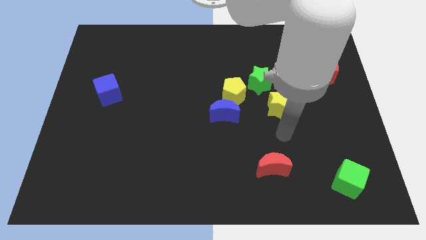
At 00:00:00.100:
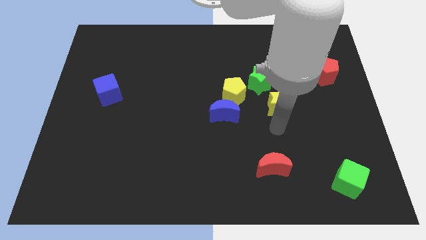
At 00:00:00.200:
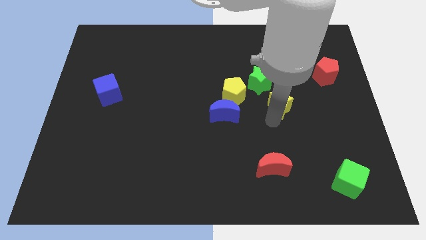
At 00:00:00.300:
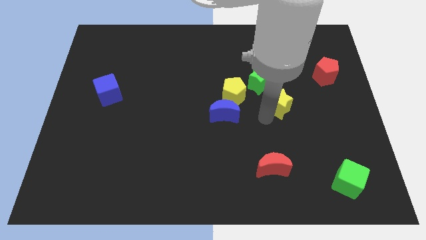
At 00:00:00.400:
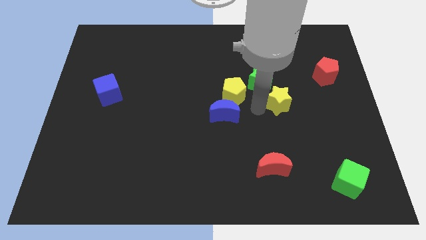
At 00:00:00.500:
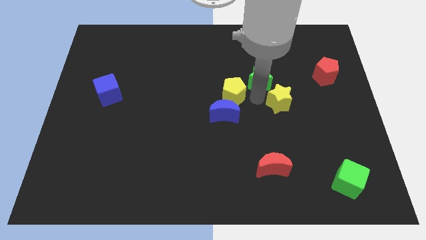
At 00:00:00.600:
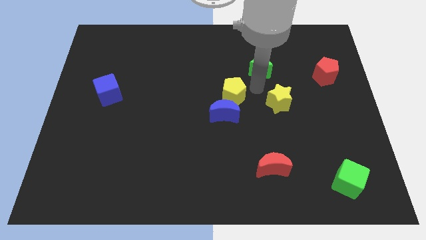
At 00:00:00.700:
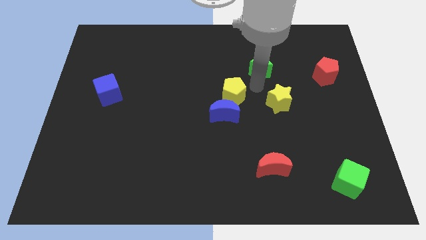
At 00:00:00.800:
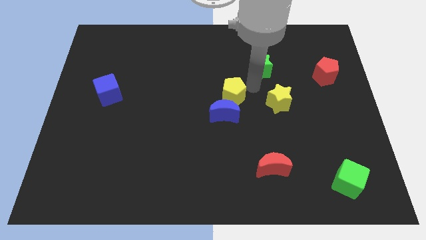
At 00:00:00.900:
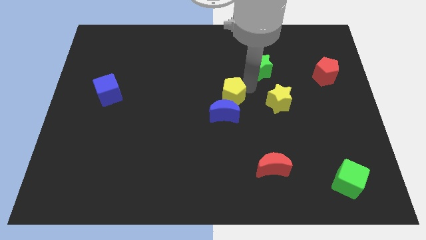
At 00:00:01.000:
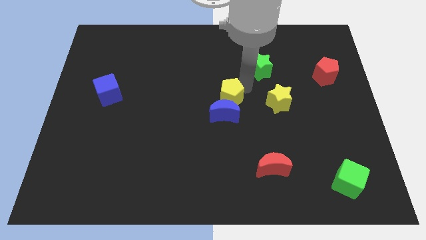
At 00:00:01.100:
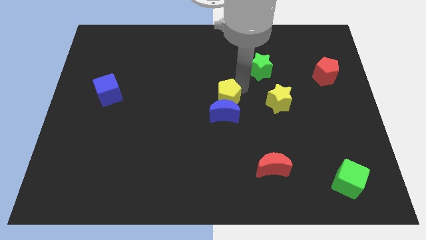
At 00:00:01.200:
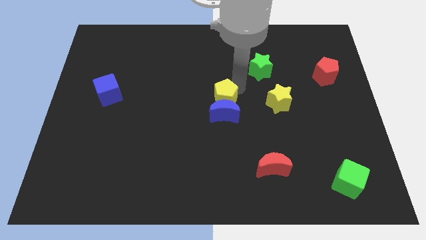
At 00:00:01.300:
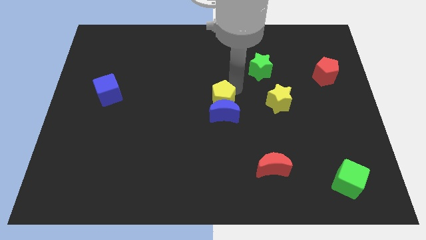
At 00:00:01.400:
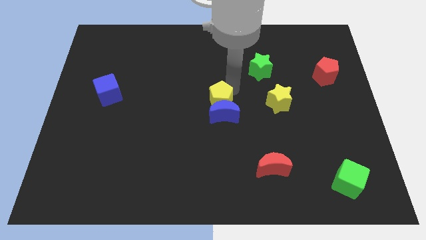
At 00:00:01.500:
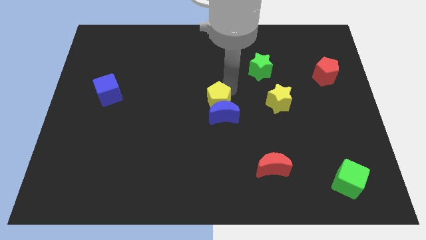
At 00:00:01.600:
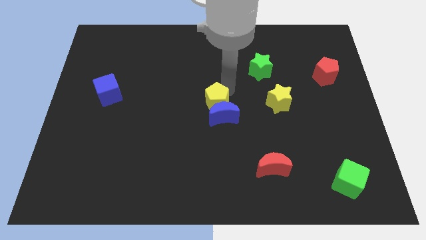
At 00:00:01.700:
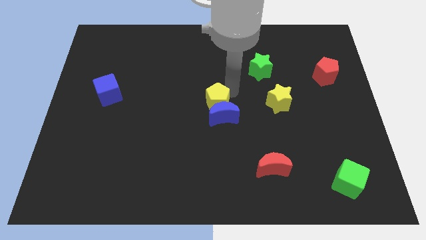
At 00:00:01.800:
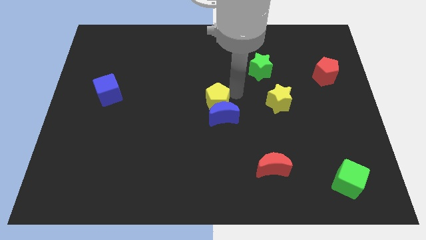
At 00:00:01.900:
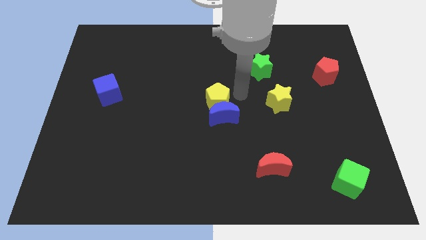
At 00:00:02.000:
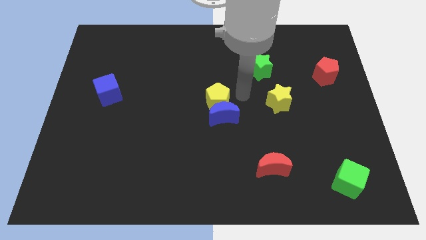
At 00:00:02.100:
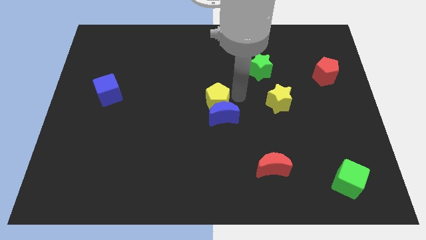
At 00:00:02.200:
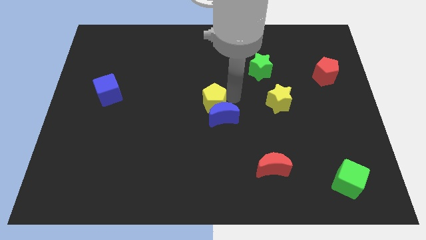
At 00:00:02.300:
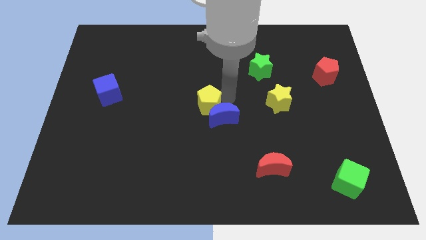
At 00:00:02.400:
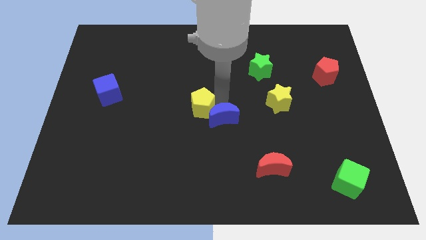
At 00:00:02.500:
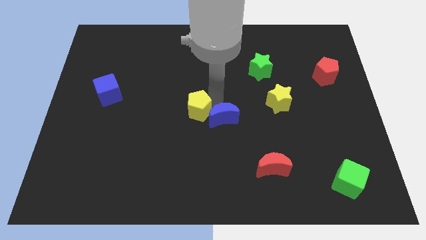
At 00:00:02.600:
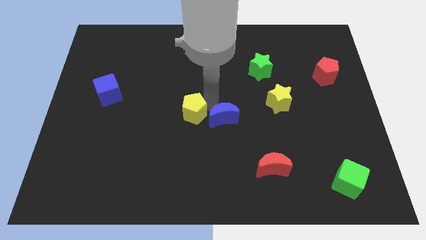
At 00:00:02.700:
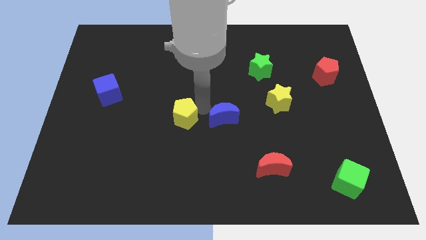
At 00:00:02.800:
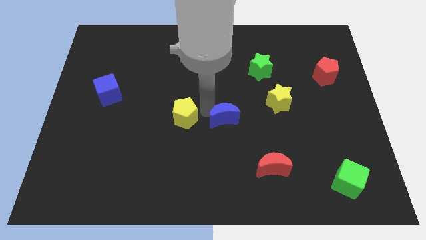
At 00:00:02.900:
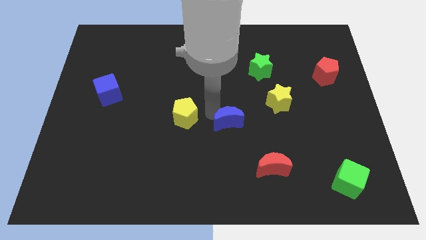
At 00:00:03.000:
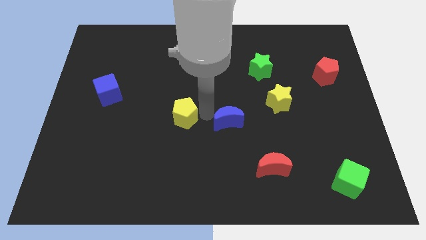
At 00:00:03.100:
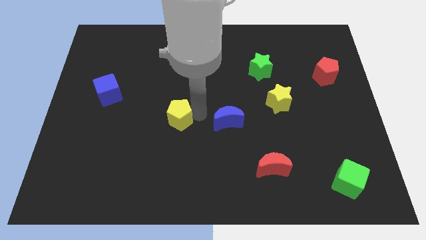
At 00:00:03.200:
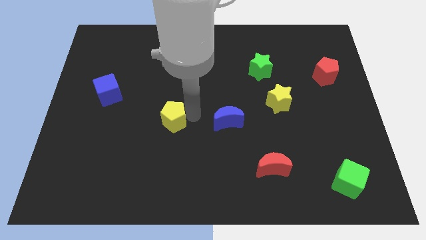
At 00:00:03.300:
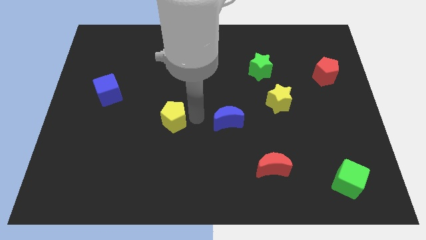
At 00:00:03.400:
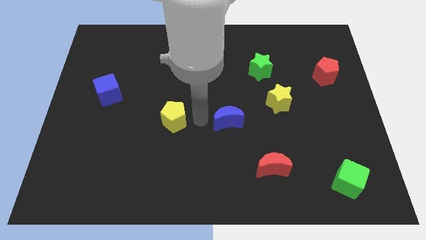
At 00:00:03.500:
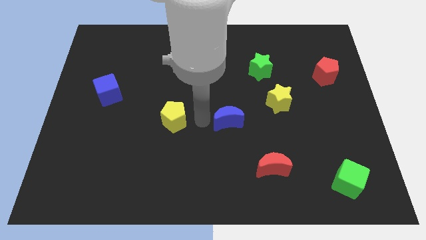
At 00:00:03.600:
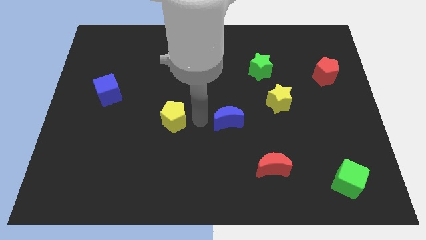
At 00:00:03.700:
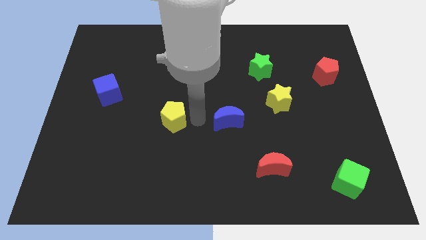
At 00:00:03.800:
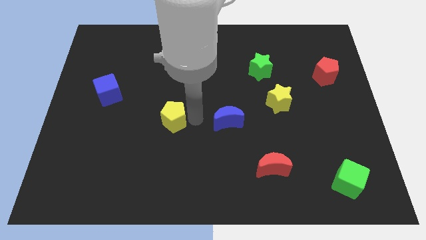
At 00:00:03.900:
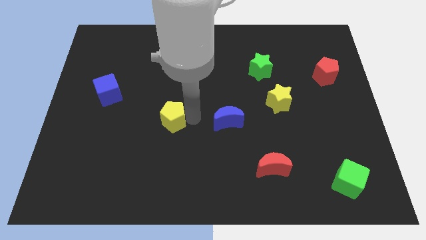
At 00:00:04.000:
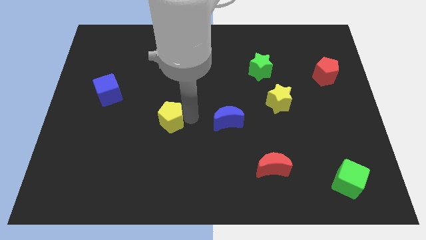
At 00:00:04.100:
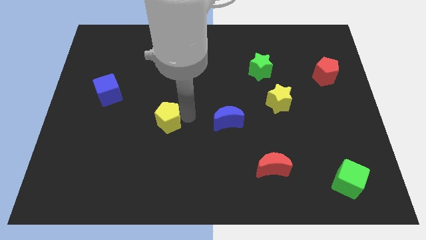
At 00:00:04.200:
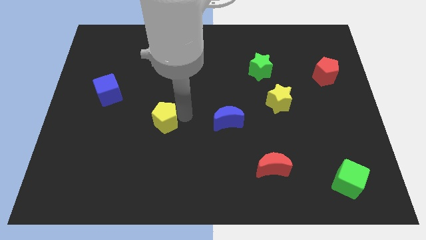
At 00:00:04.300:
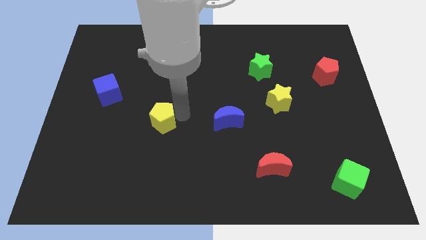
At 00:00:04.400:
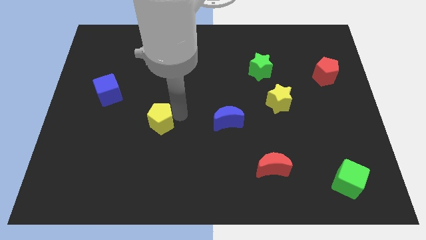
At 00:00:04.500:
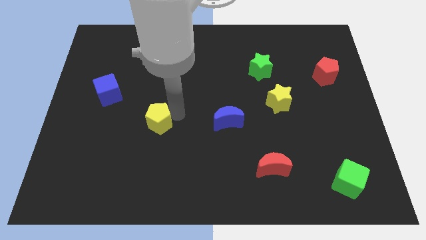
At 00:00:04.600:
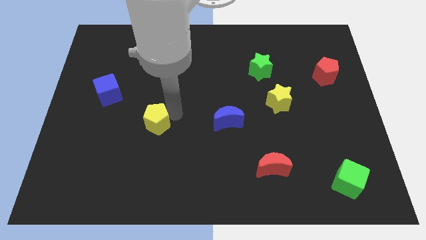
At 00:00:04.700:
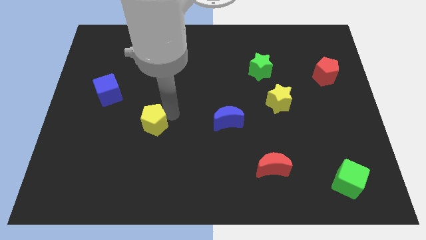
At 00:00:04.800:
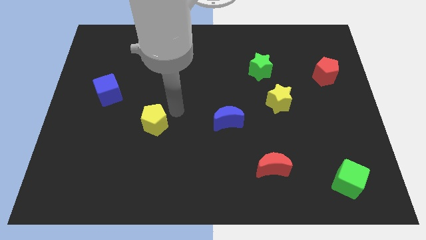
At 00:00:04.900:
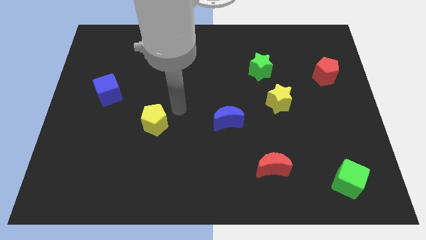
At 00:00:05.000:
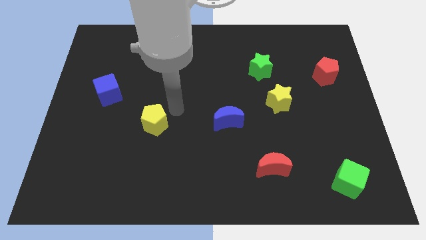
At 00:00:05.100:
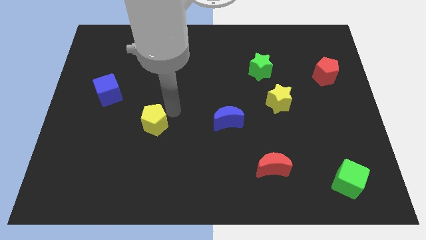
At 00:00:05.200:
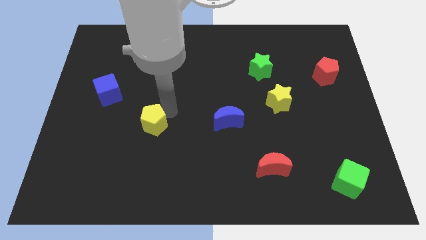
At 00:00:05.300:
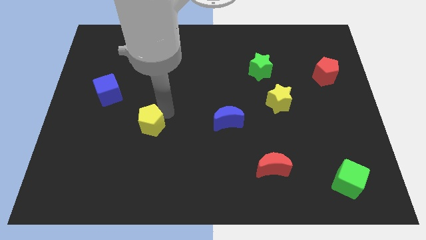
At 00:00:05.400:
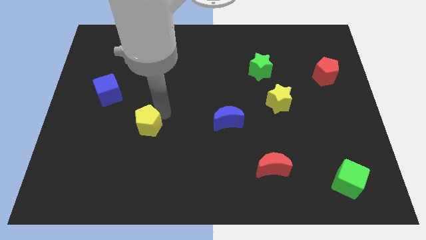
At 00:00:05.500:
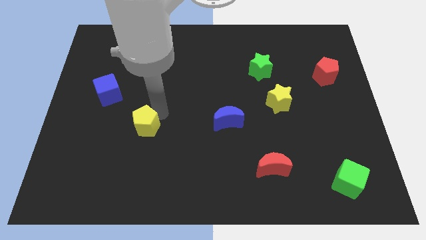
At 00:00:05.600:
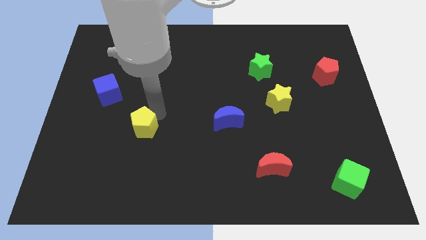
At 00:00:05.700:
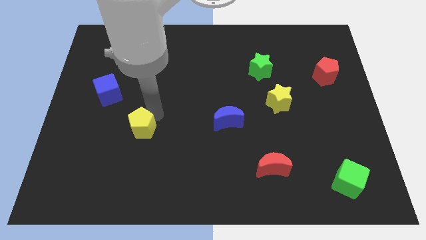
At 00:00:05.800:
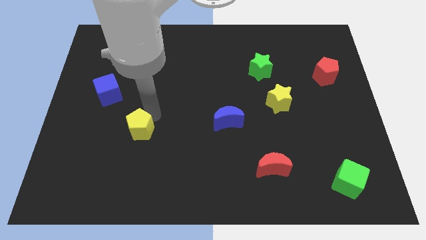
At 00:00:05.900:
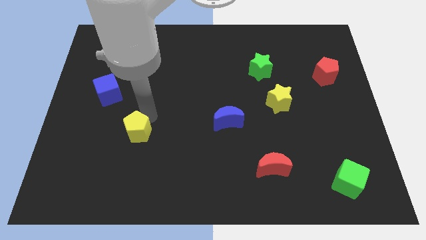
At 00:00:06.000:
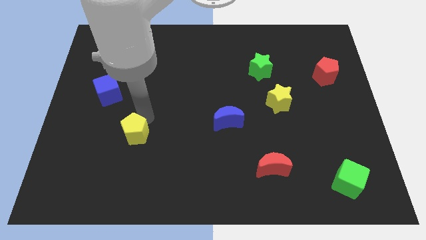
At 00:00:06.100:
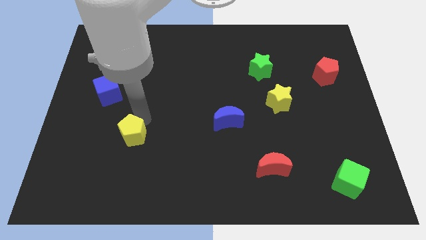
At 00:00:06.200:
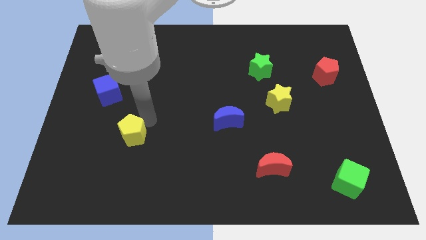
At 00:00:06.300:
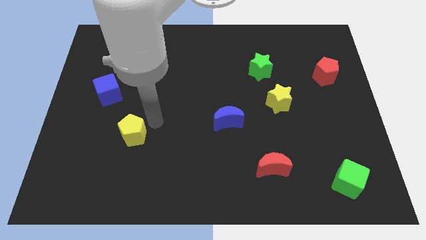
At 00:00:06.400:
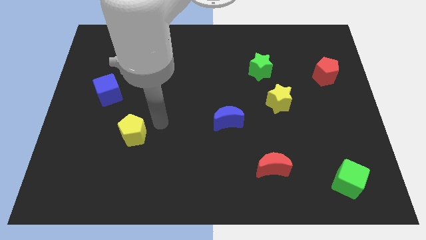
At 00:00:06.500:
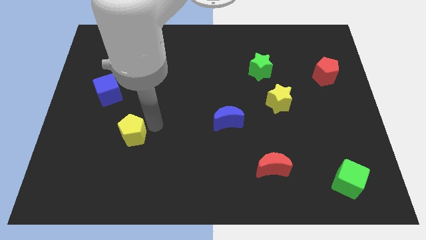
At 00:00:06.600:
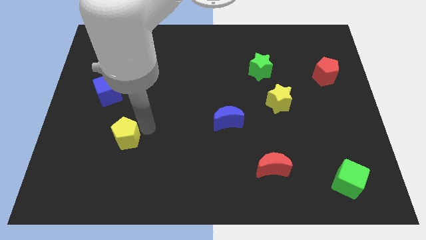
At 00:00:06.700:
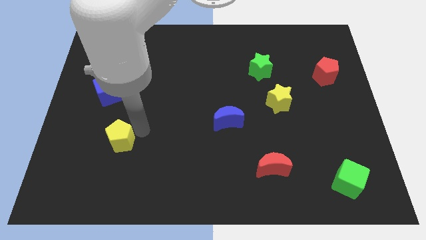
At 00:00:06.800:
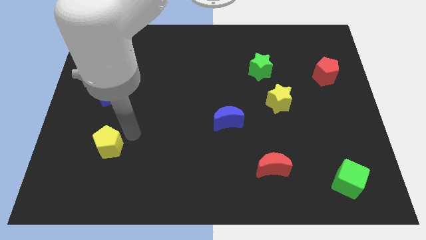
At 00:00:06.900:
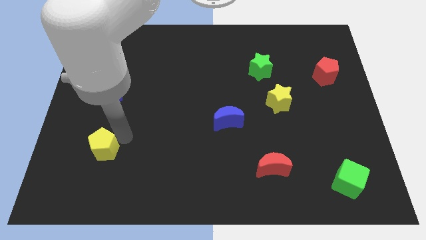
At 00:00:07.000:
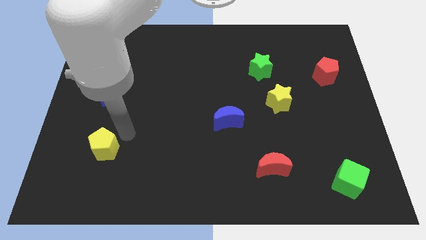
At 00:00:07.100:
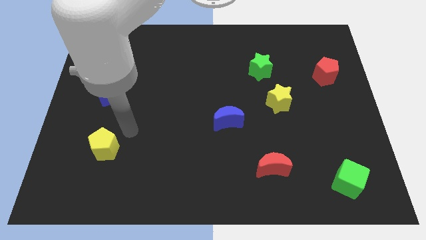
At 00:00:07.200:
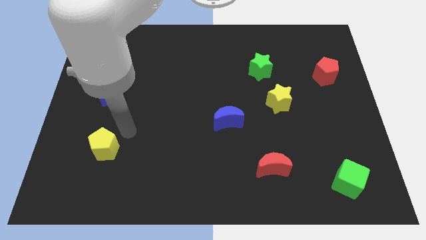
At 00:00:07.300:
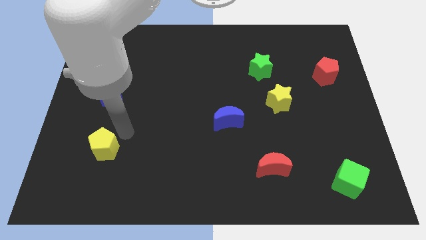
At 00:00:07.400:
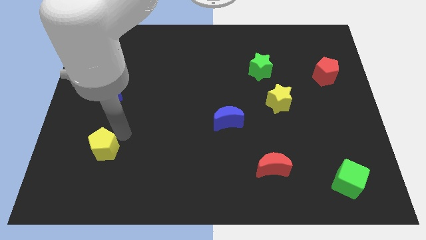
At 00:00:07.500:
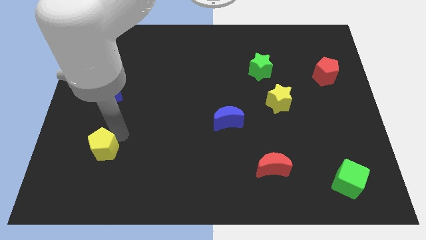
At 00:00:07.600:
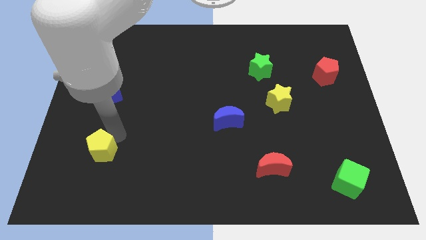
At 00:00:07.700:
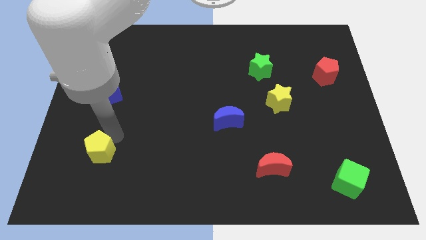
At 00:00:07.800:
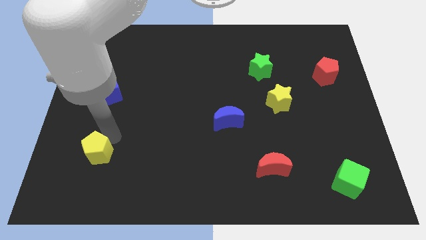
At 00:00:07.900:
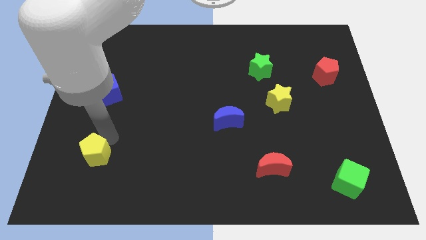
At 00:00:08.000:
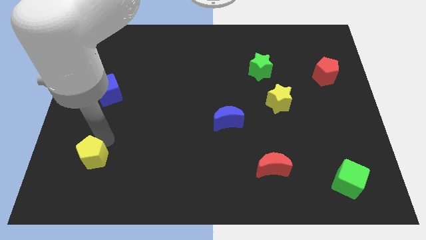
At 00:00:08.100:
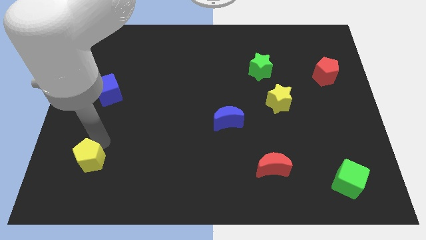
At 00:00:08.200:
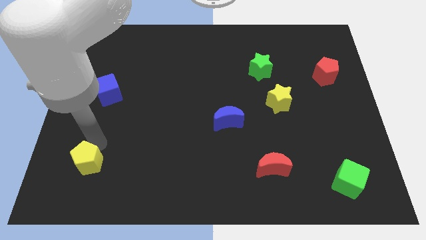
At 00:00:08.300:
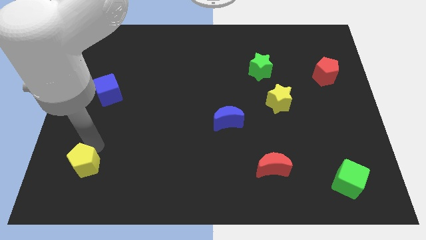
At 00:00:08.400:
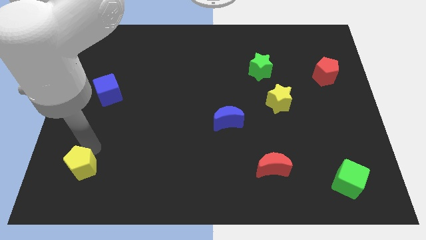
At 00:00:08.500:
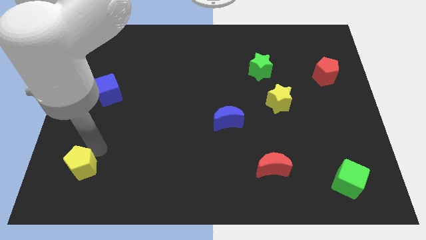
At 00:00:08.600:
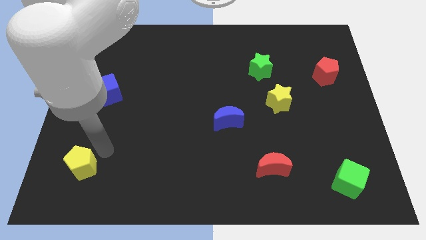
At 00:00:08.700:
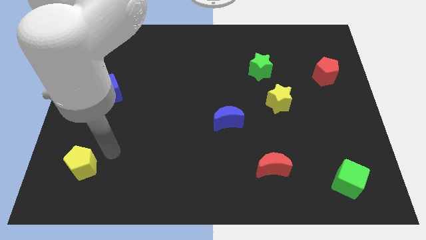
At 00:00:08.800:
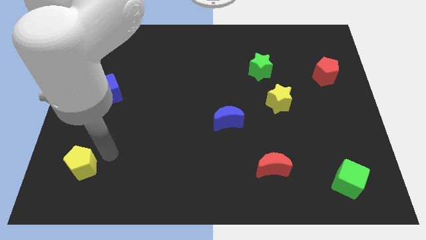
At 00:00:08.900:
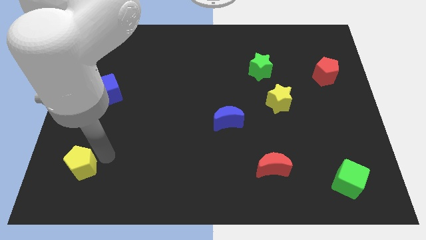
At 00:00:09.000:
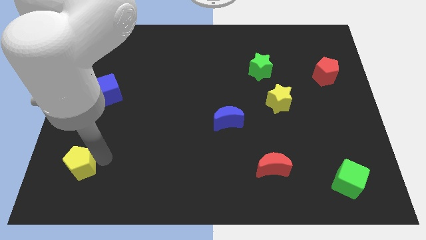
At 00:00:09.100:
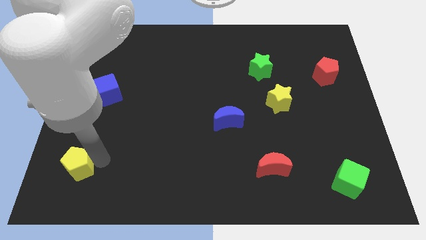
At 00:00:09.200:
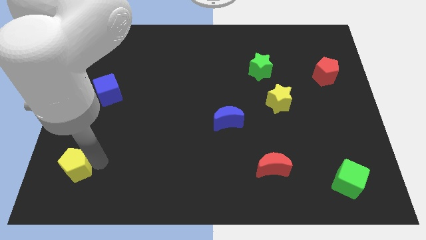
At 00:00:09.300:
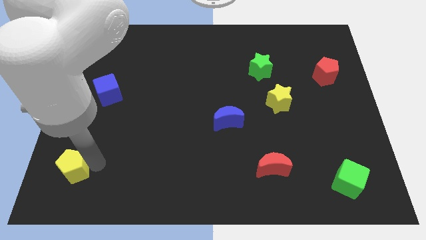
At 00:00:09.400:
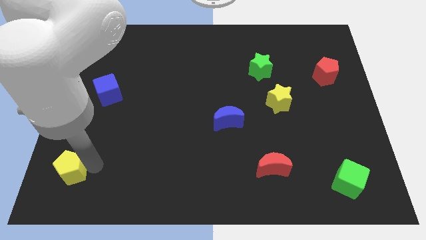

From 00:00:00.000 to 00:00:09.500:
move the yellow pentagon to the bottom left of the board
